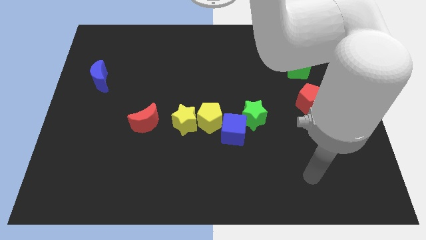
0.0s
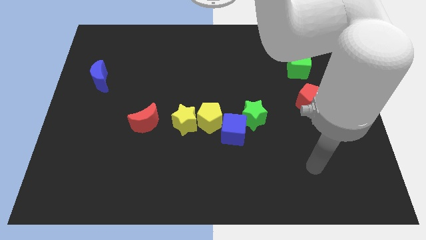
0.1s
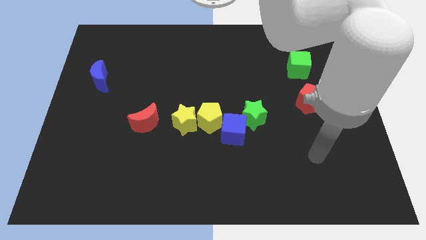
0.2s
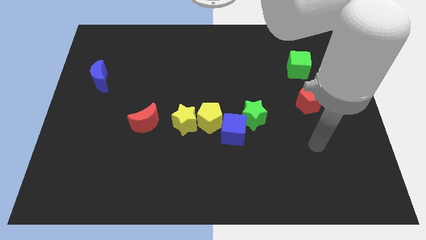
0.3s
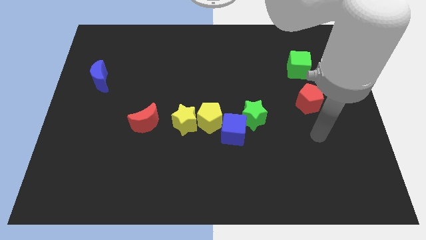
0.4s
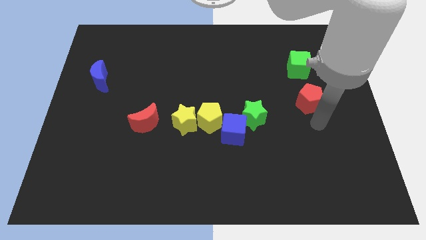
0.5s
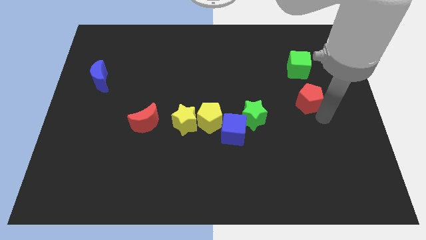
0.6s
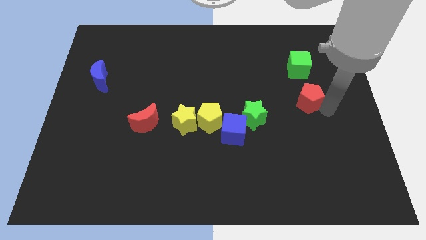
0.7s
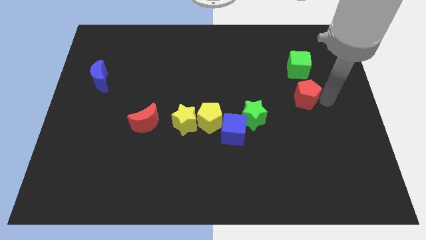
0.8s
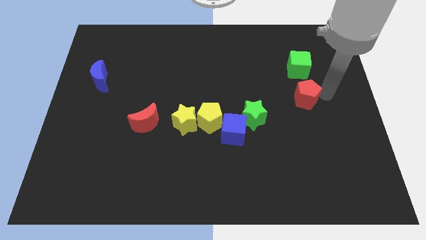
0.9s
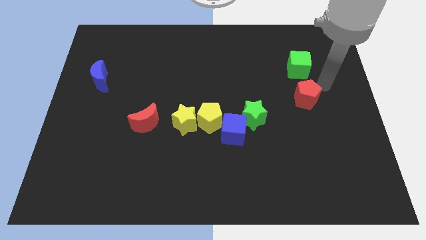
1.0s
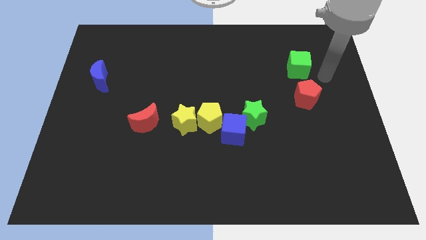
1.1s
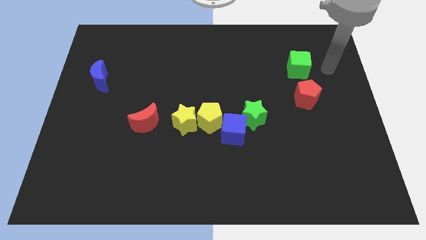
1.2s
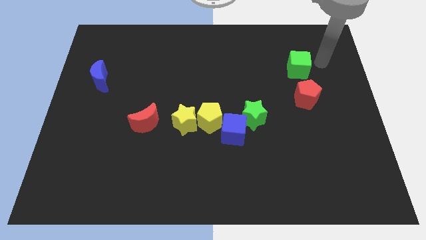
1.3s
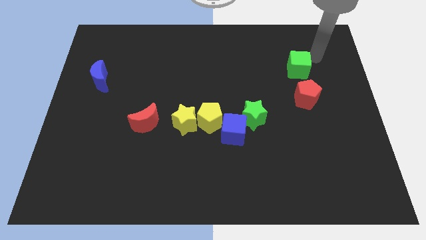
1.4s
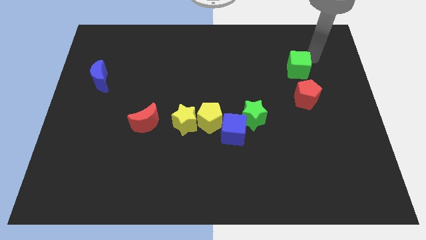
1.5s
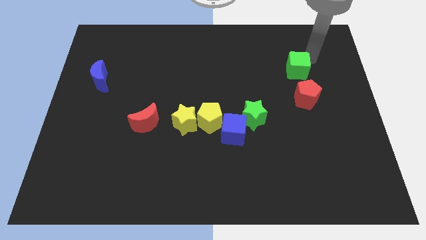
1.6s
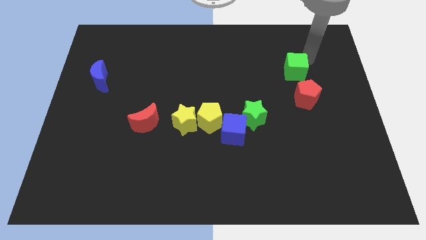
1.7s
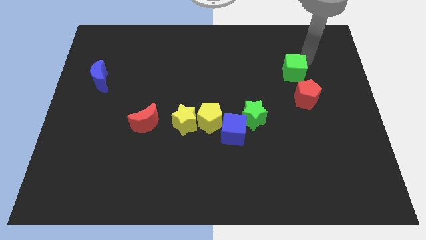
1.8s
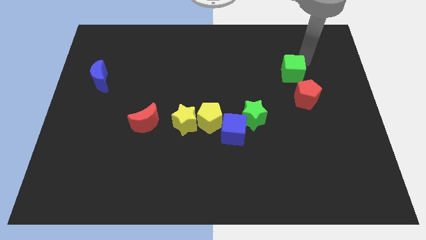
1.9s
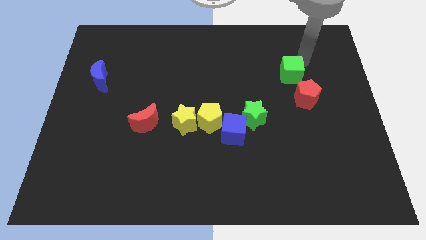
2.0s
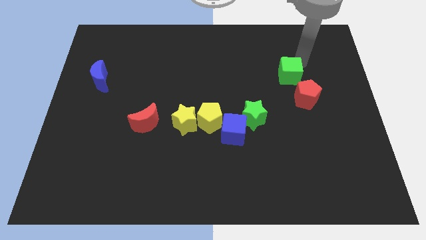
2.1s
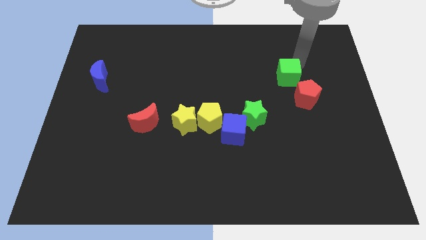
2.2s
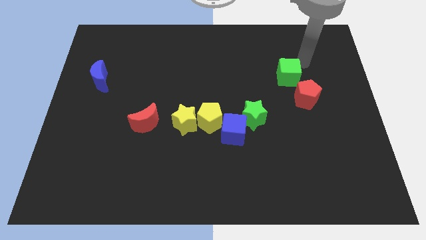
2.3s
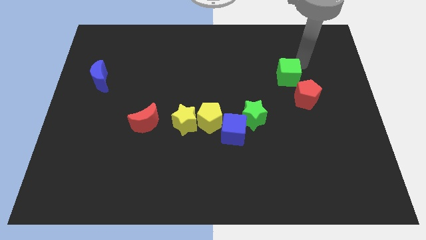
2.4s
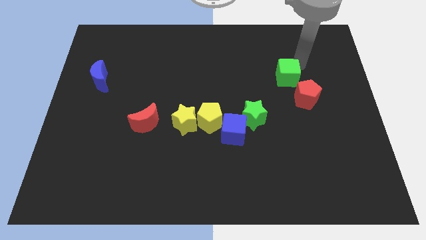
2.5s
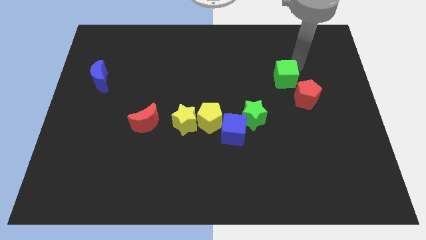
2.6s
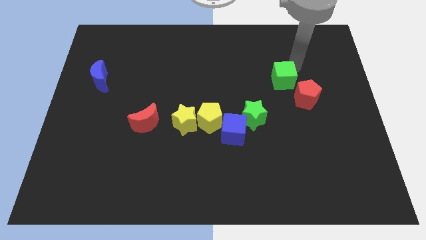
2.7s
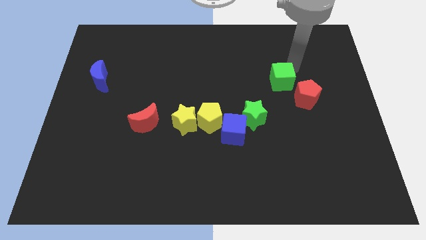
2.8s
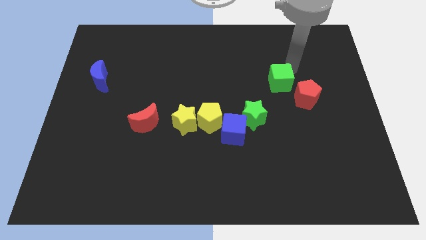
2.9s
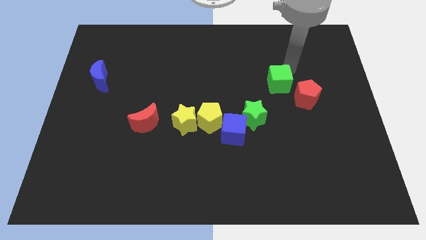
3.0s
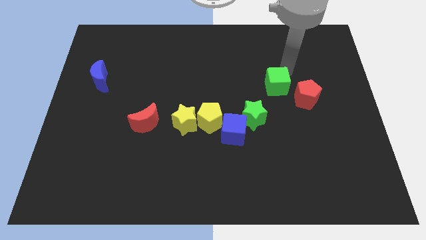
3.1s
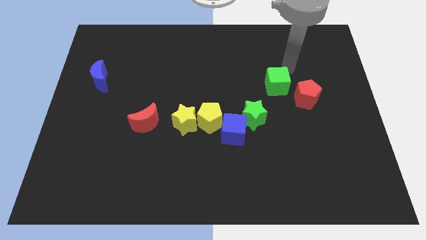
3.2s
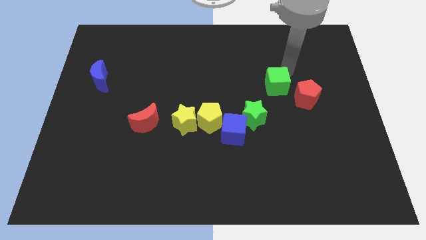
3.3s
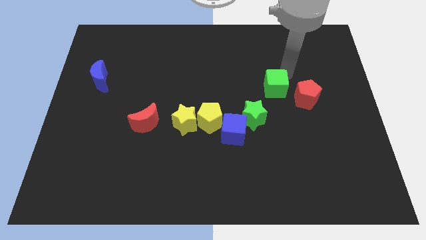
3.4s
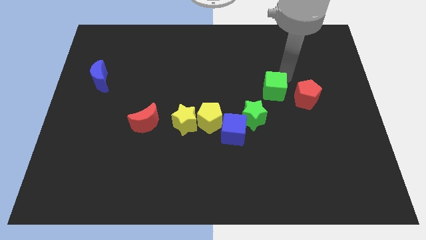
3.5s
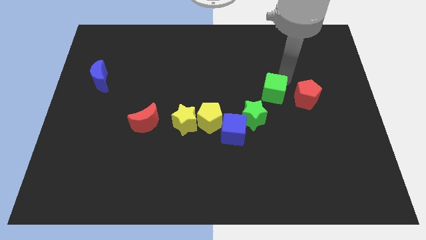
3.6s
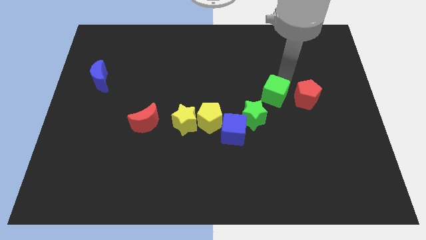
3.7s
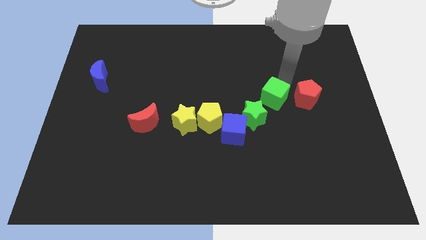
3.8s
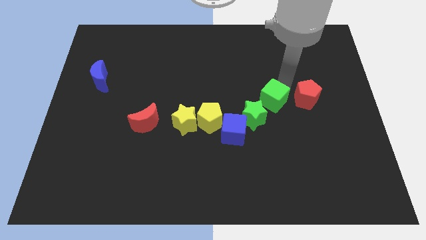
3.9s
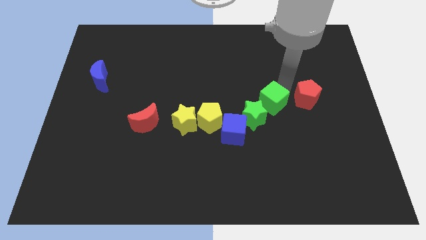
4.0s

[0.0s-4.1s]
put the green cube to the top right side of the blue cube

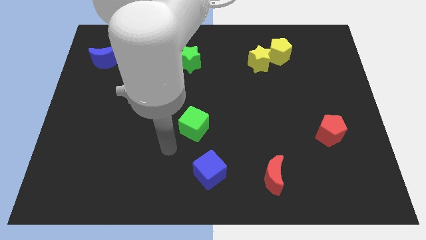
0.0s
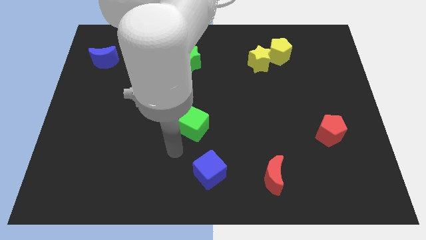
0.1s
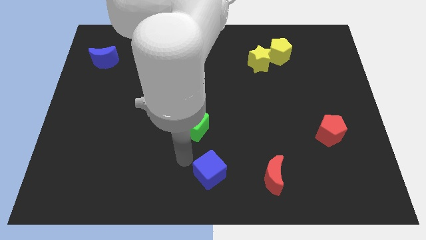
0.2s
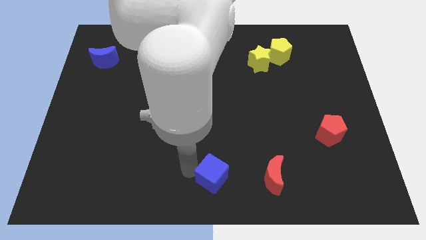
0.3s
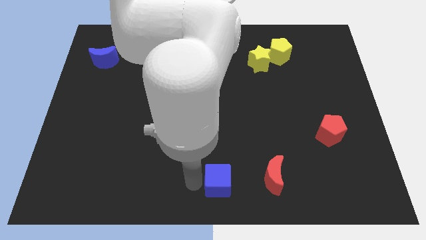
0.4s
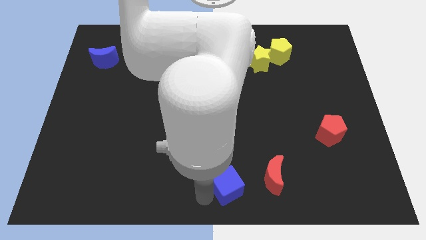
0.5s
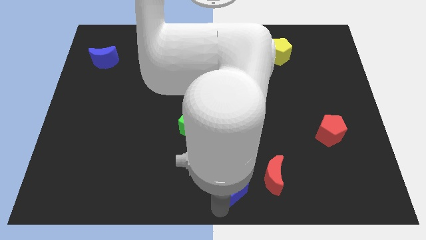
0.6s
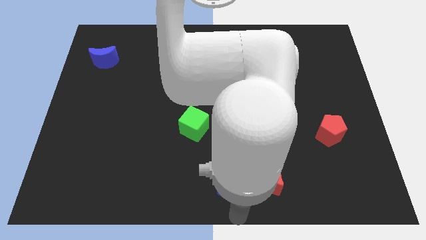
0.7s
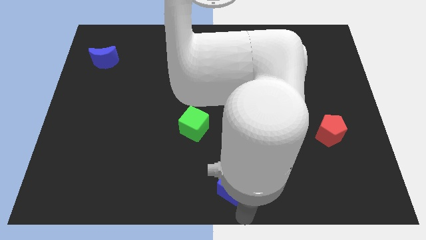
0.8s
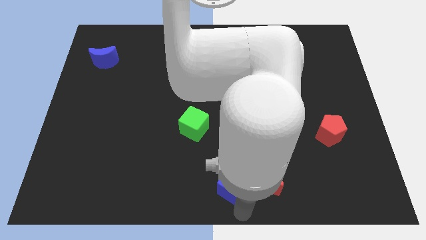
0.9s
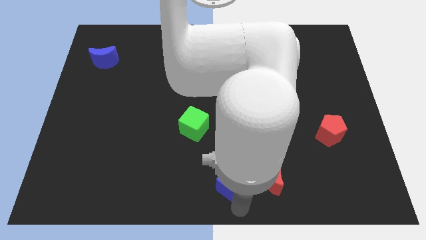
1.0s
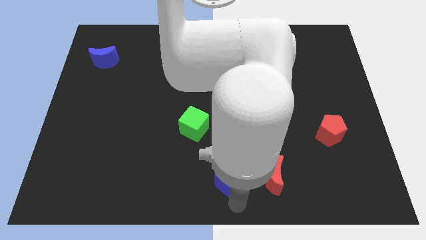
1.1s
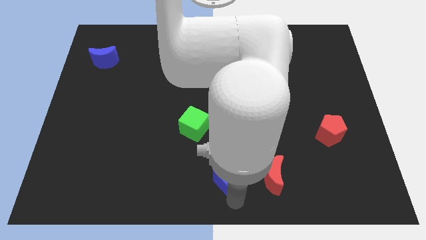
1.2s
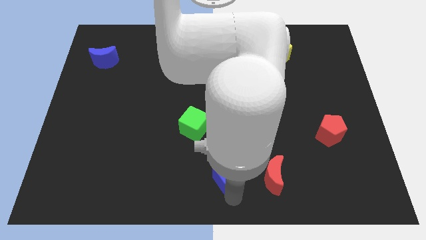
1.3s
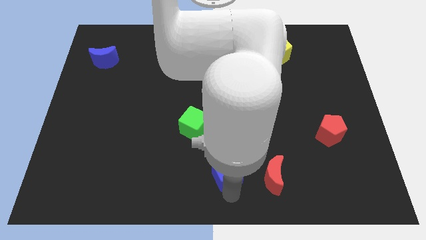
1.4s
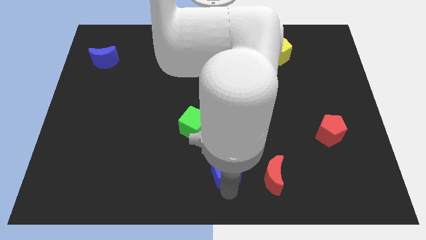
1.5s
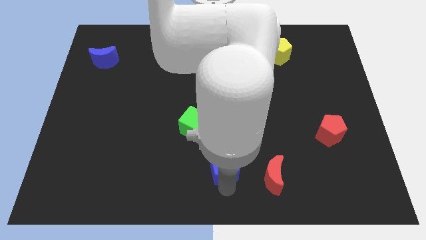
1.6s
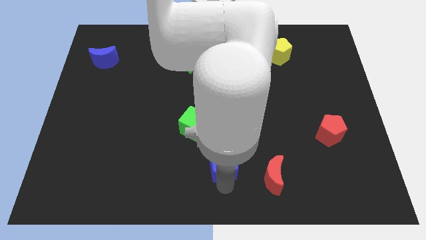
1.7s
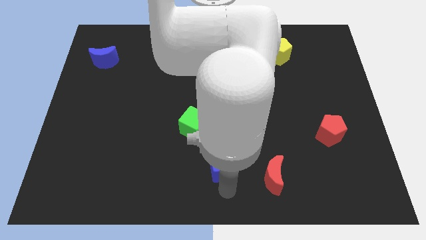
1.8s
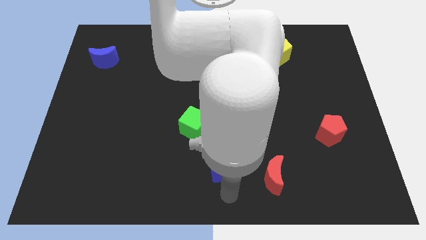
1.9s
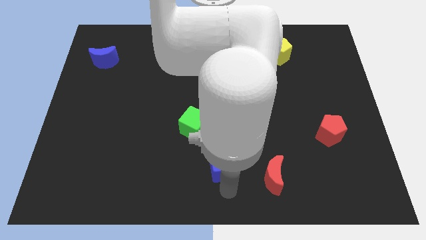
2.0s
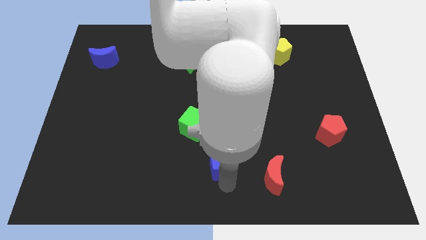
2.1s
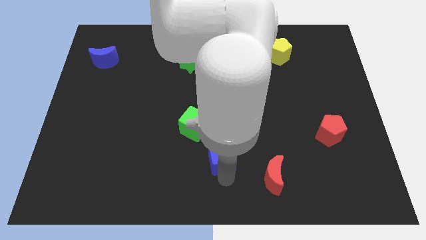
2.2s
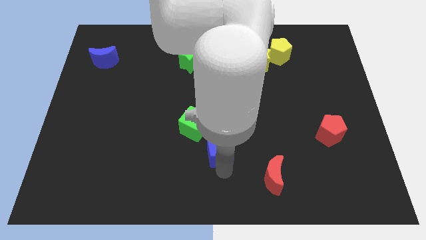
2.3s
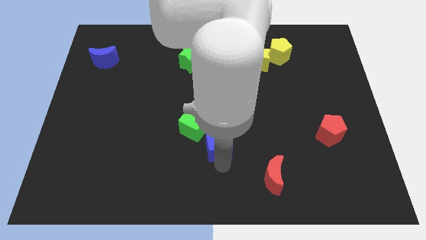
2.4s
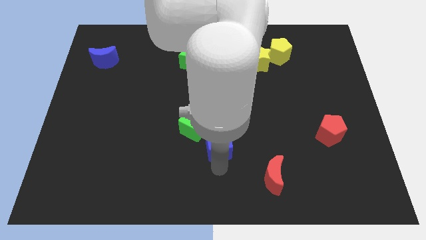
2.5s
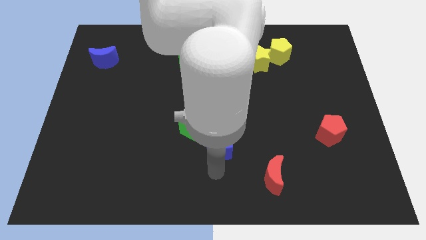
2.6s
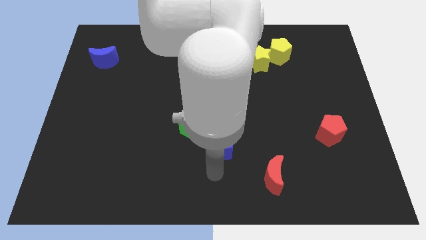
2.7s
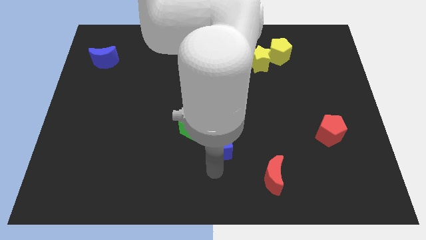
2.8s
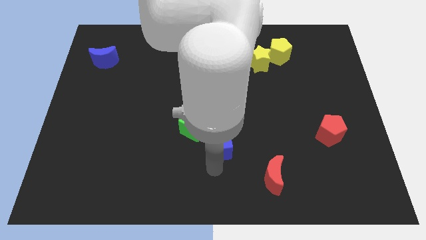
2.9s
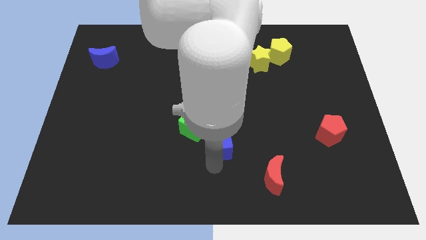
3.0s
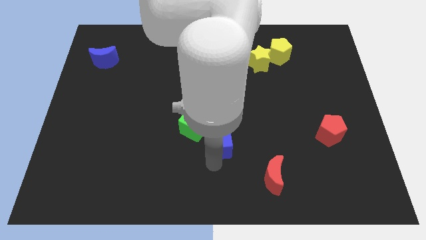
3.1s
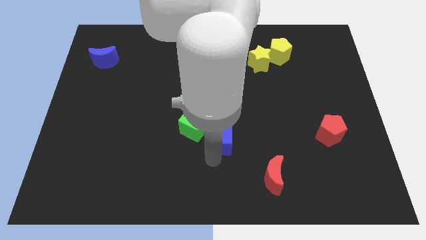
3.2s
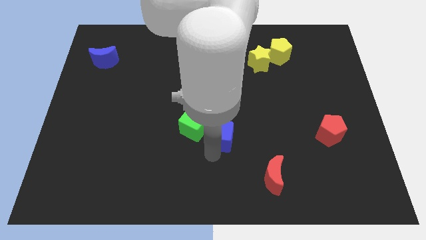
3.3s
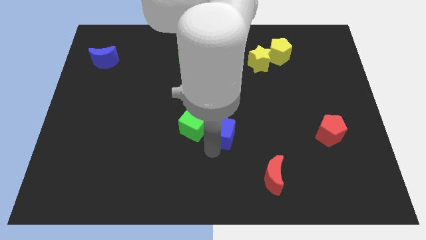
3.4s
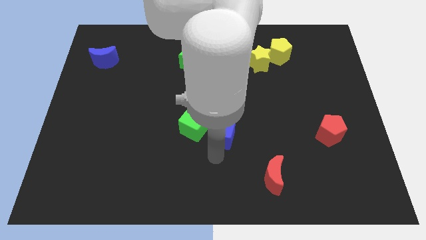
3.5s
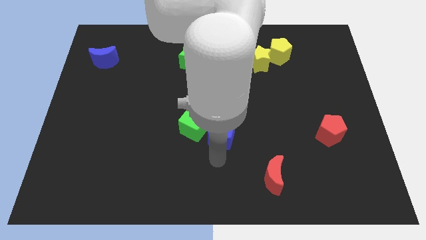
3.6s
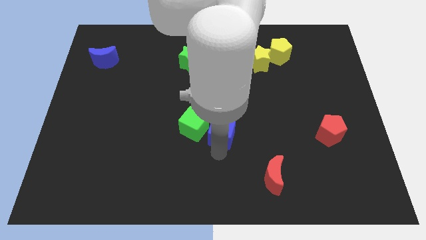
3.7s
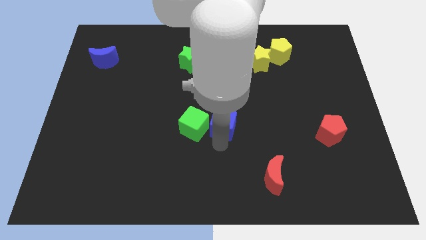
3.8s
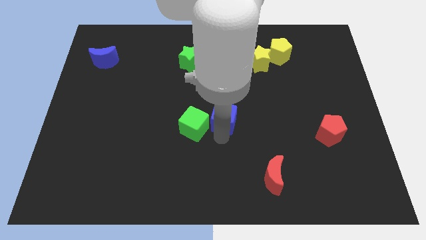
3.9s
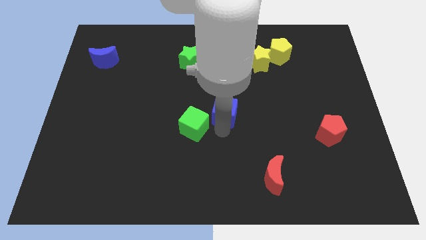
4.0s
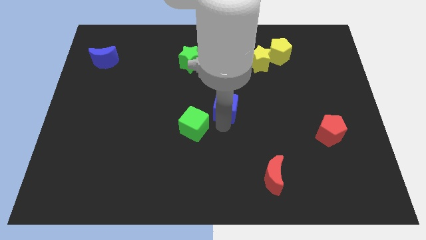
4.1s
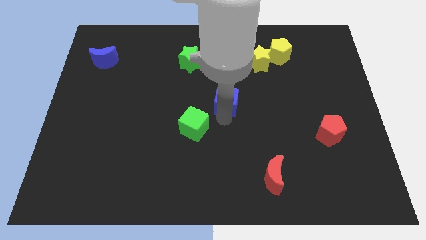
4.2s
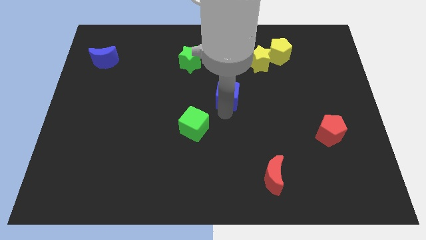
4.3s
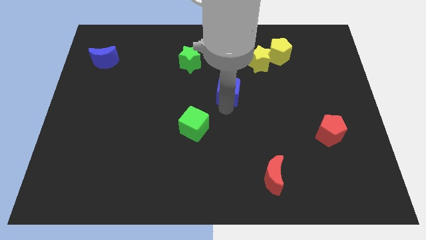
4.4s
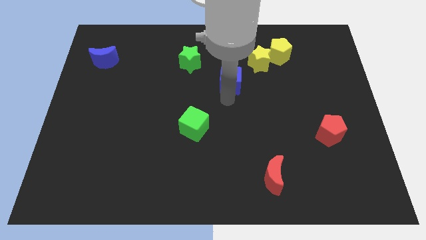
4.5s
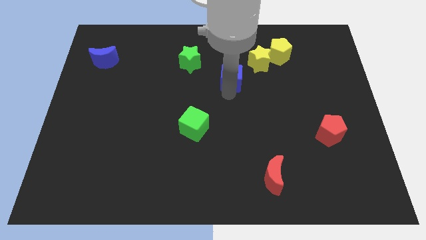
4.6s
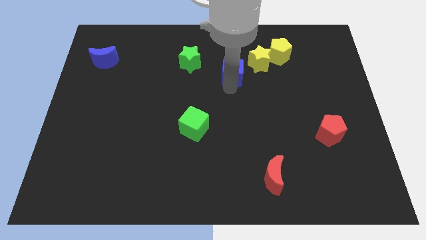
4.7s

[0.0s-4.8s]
push the blue cube to the right side of the green star
